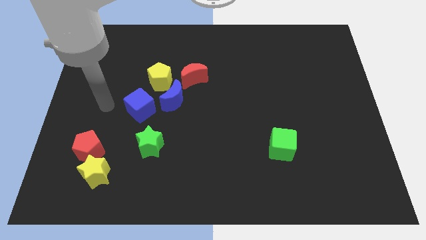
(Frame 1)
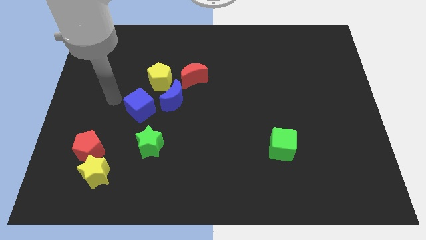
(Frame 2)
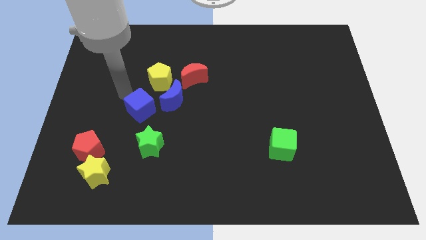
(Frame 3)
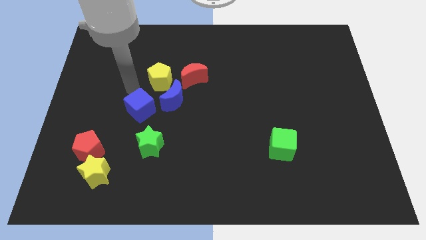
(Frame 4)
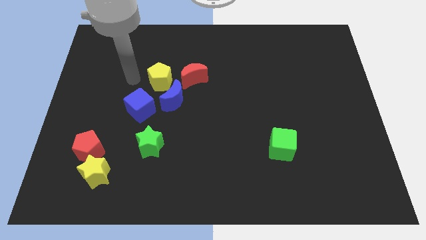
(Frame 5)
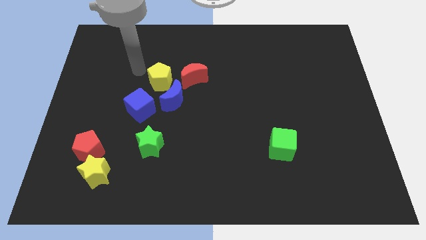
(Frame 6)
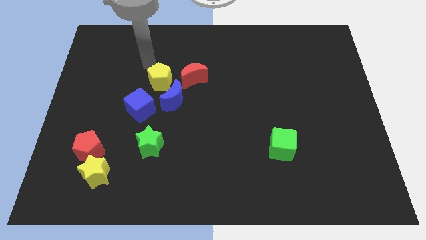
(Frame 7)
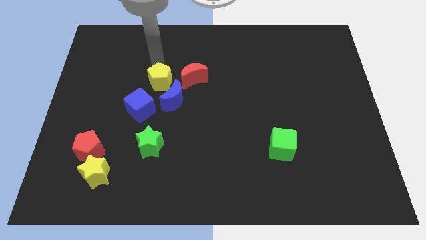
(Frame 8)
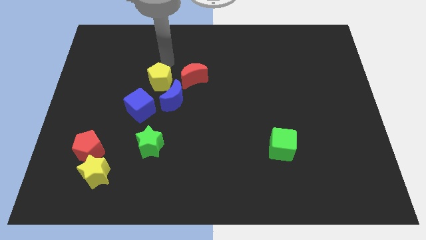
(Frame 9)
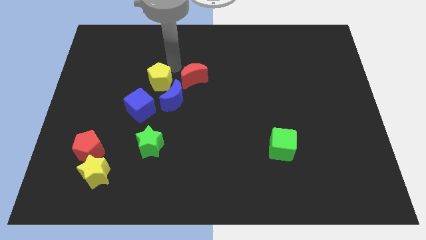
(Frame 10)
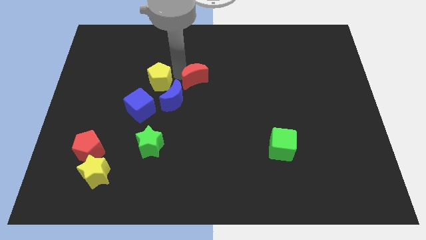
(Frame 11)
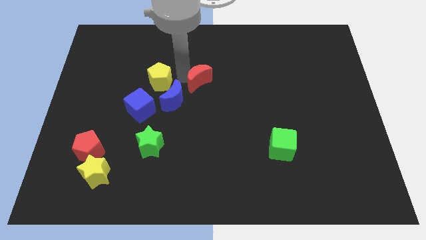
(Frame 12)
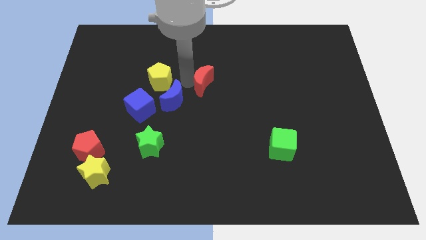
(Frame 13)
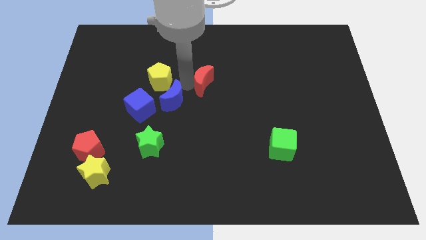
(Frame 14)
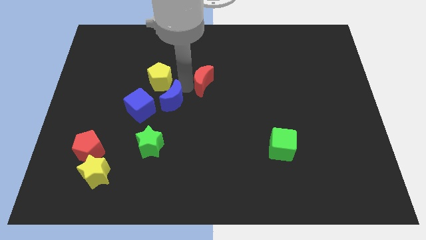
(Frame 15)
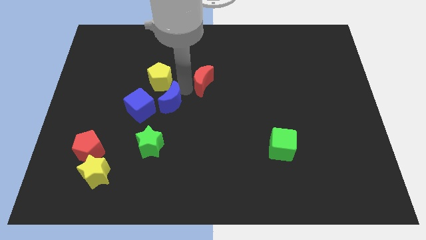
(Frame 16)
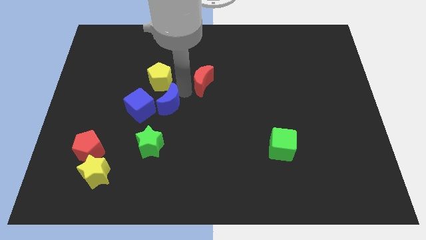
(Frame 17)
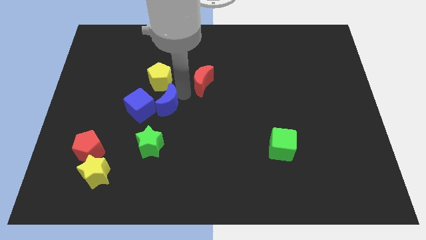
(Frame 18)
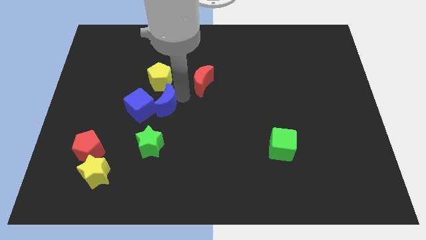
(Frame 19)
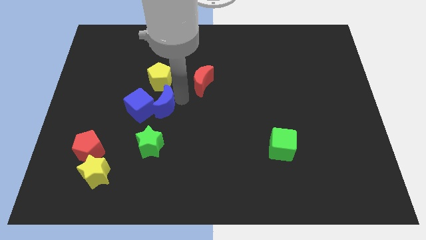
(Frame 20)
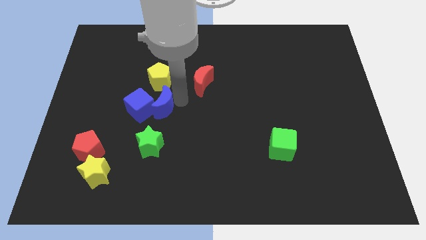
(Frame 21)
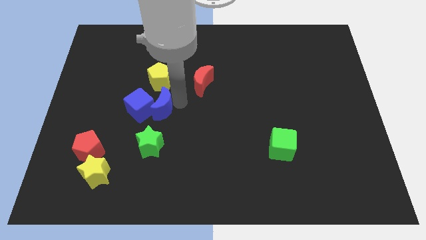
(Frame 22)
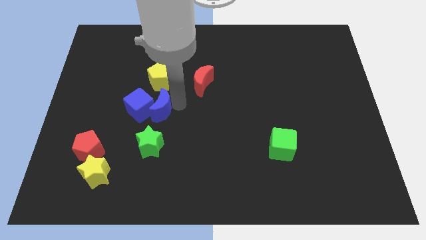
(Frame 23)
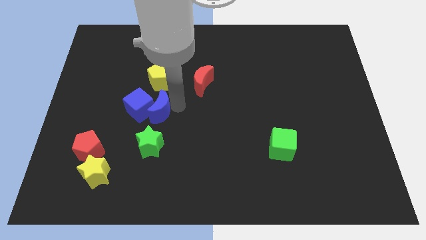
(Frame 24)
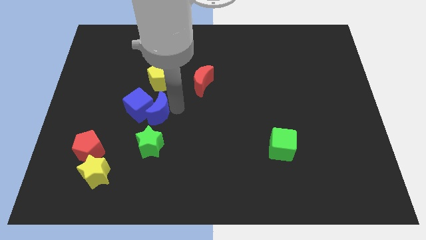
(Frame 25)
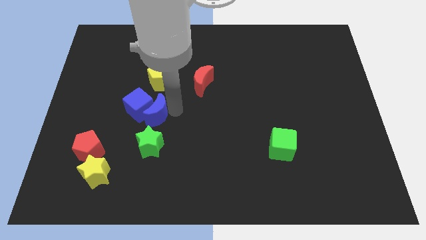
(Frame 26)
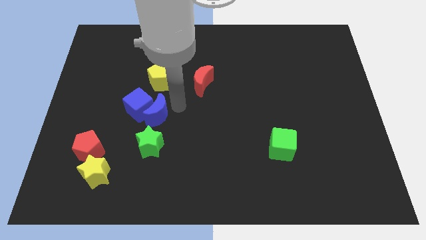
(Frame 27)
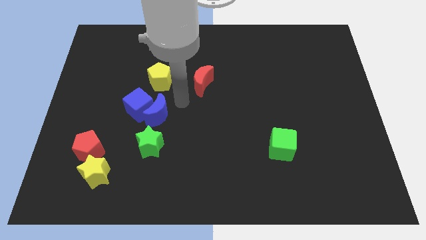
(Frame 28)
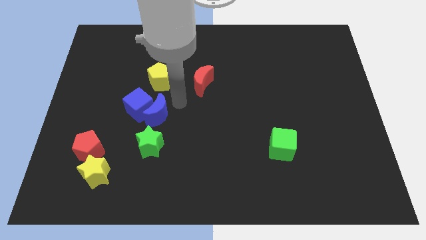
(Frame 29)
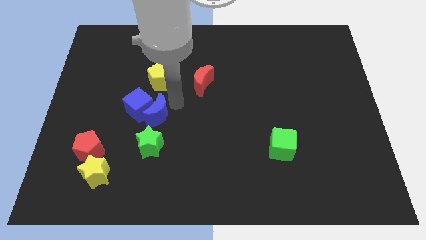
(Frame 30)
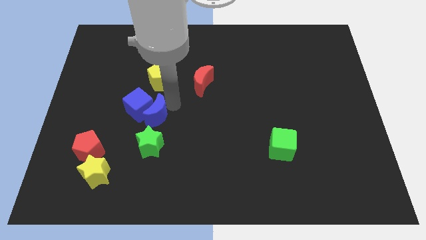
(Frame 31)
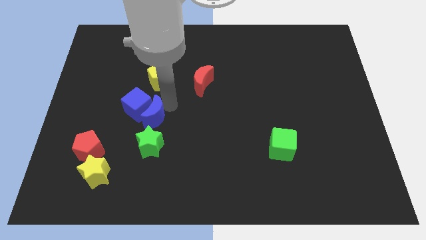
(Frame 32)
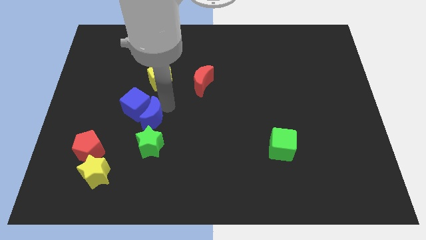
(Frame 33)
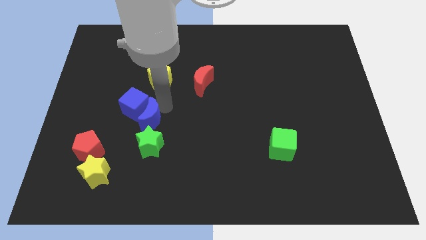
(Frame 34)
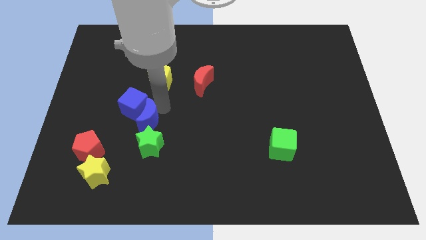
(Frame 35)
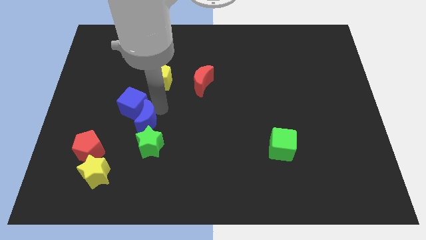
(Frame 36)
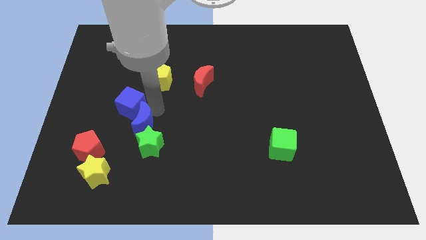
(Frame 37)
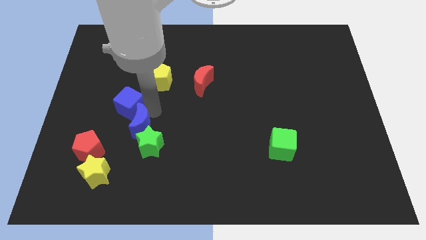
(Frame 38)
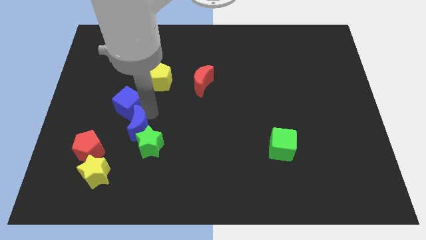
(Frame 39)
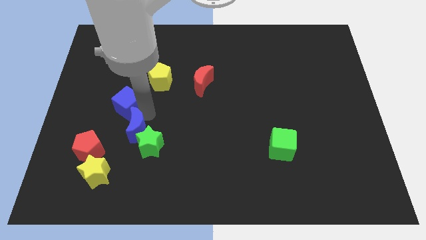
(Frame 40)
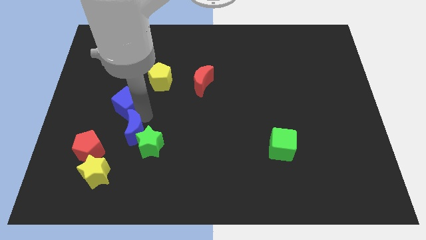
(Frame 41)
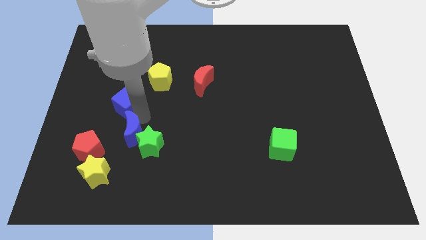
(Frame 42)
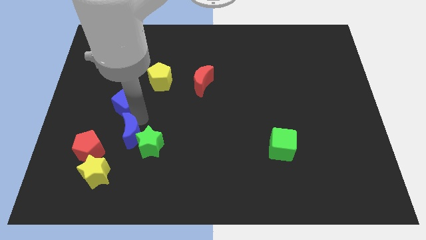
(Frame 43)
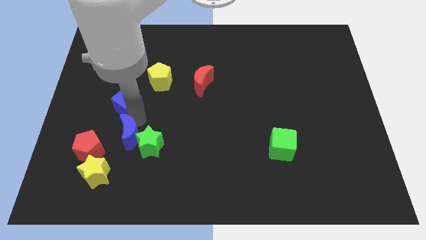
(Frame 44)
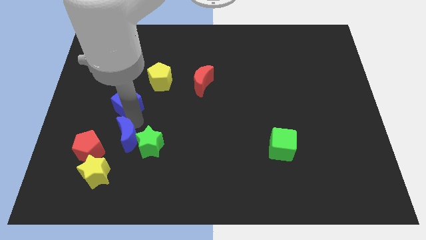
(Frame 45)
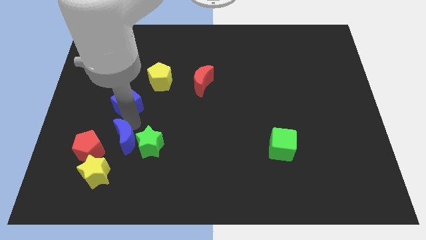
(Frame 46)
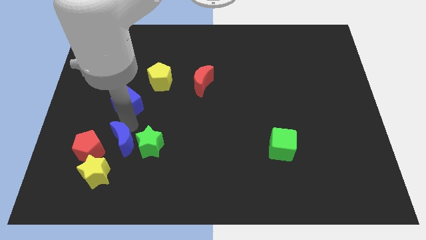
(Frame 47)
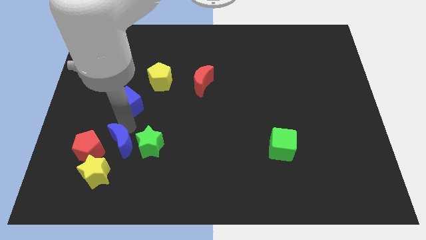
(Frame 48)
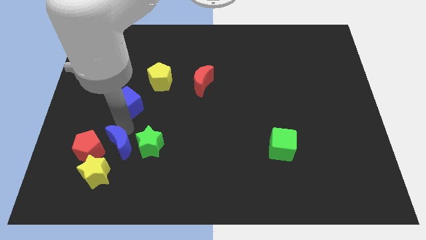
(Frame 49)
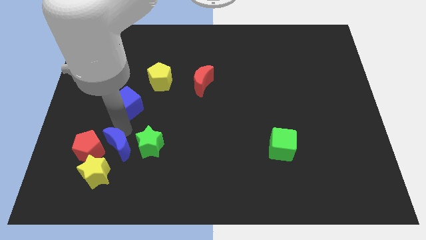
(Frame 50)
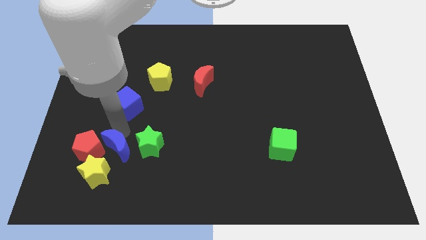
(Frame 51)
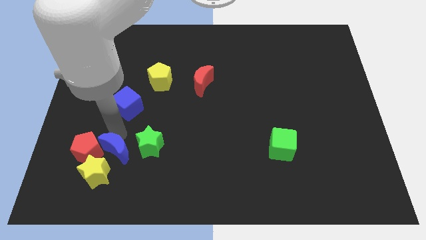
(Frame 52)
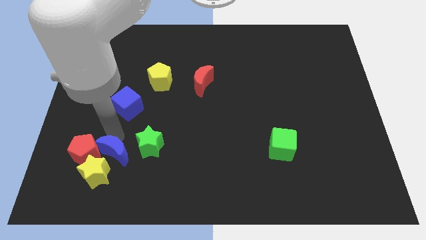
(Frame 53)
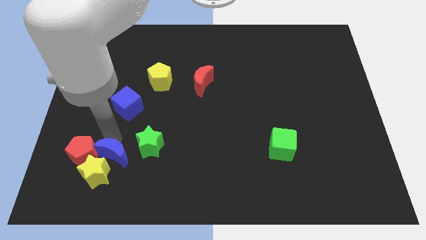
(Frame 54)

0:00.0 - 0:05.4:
slide the blue moon close to the yellow star

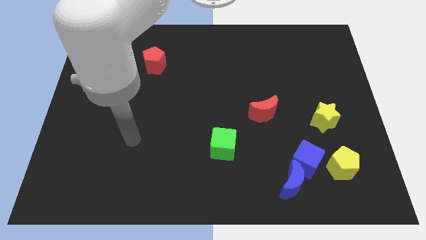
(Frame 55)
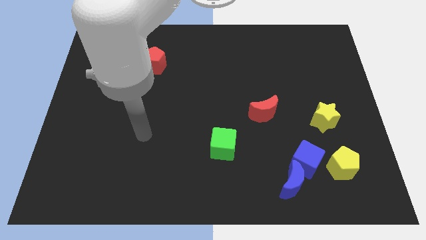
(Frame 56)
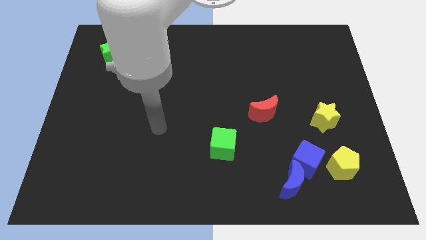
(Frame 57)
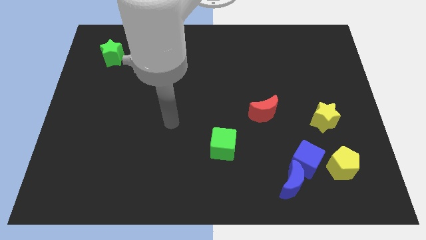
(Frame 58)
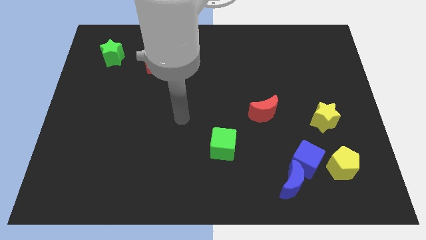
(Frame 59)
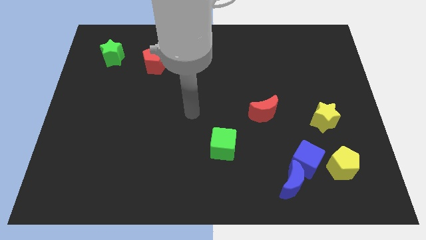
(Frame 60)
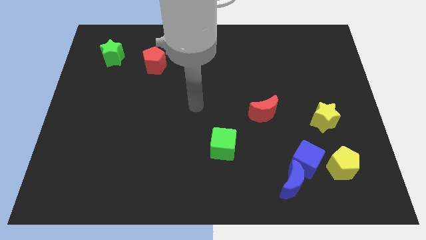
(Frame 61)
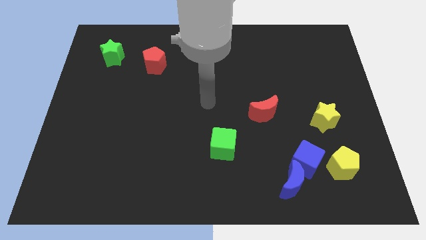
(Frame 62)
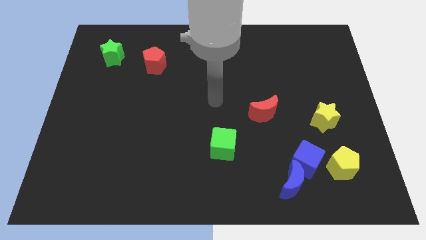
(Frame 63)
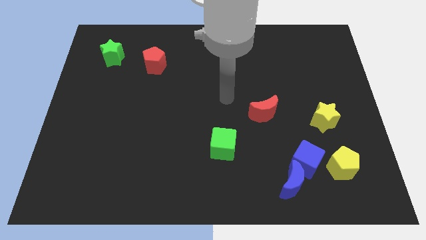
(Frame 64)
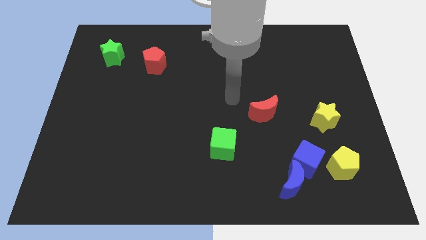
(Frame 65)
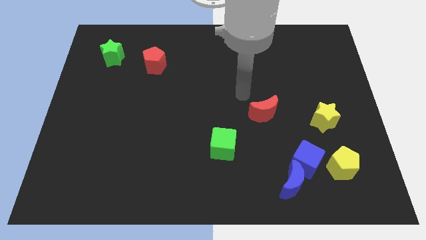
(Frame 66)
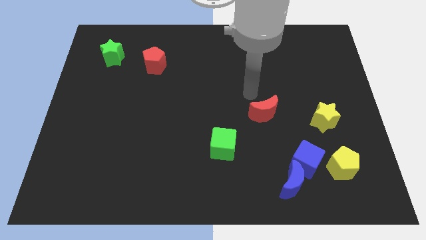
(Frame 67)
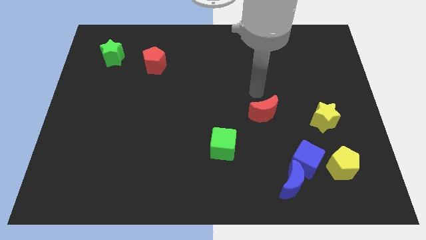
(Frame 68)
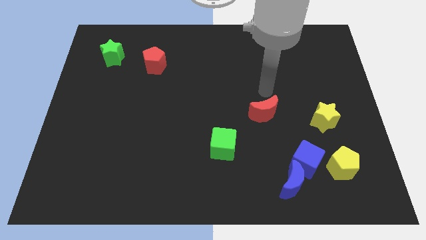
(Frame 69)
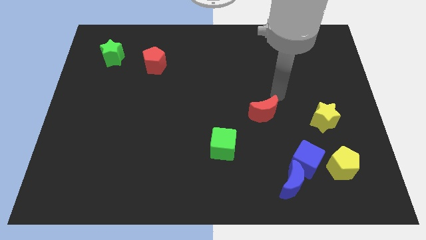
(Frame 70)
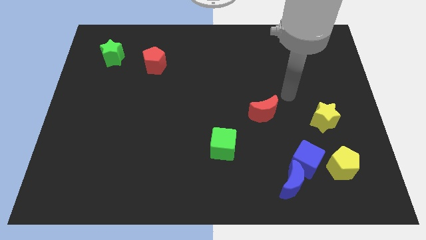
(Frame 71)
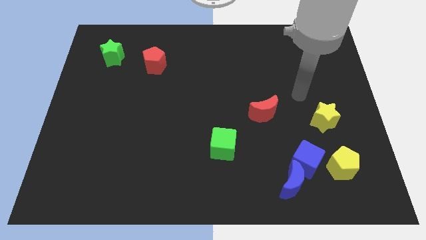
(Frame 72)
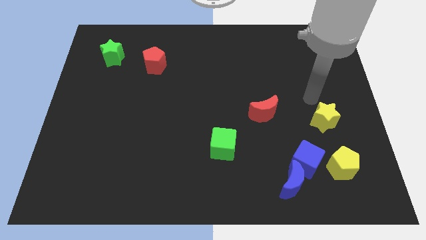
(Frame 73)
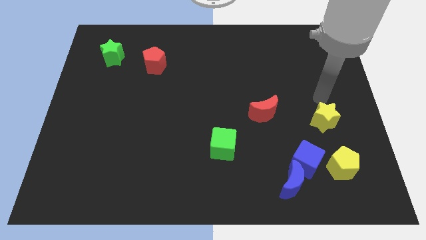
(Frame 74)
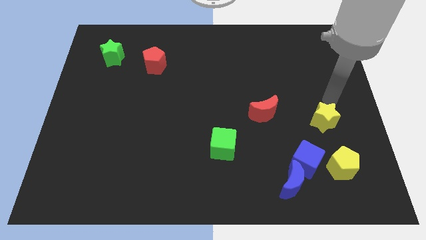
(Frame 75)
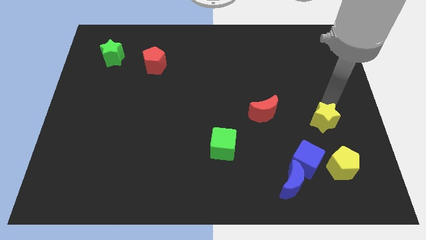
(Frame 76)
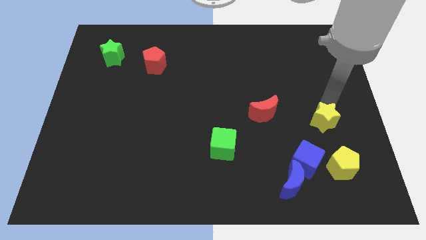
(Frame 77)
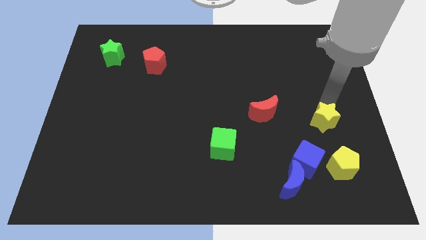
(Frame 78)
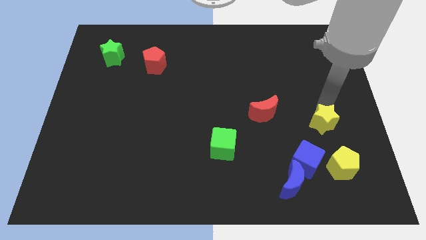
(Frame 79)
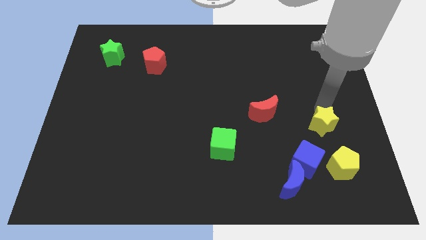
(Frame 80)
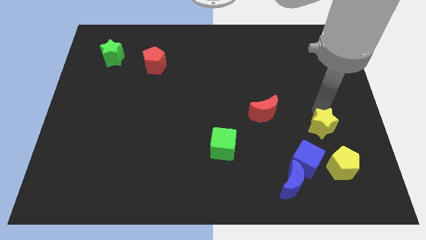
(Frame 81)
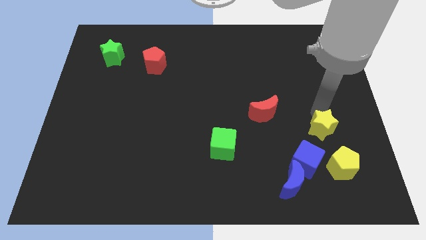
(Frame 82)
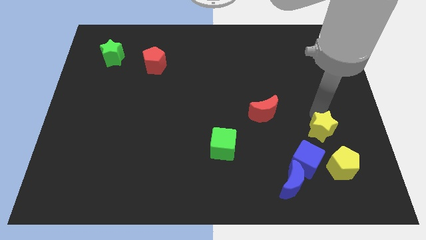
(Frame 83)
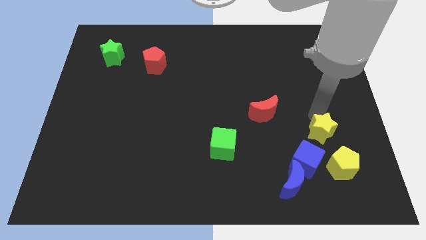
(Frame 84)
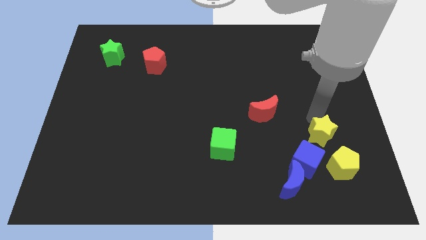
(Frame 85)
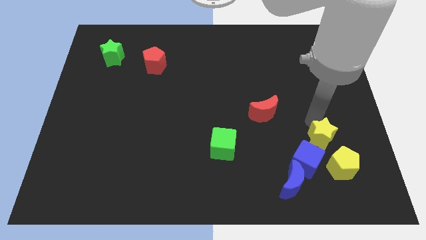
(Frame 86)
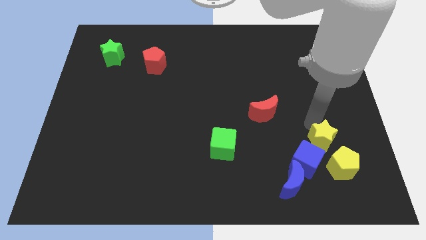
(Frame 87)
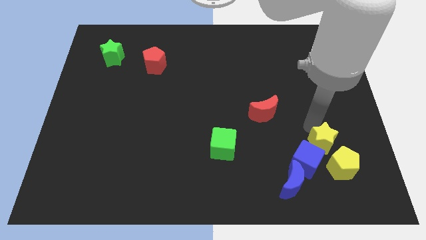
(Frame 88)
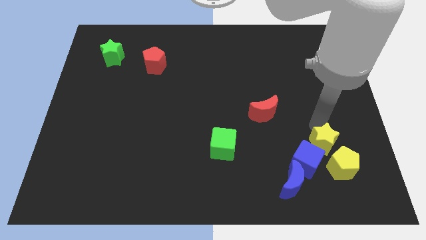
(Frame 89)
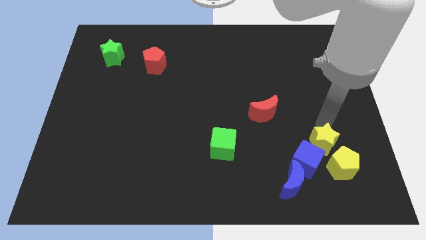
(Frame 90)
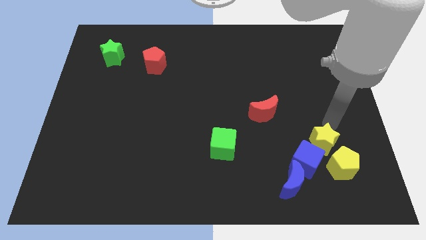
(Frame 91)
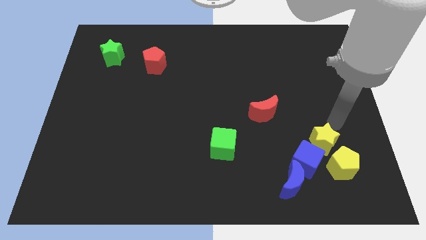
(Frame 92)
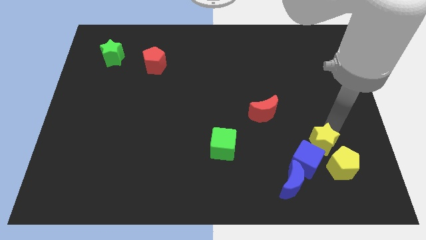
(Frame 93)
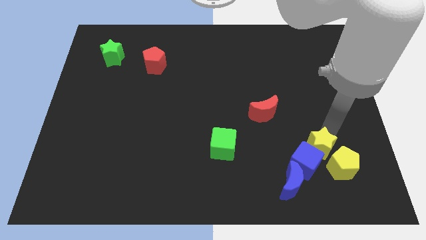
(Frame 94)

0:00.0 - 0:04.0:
slide the yellow star close to the blue cube
